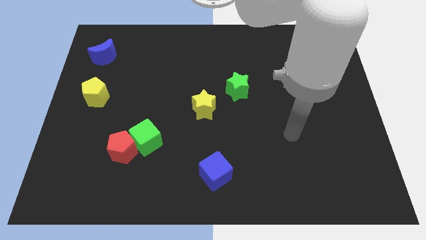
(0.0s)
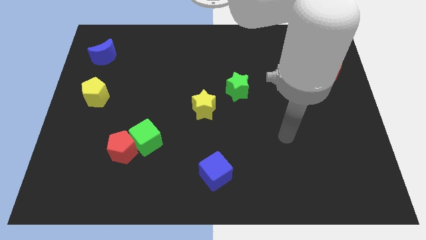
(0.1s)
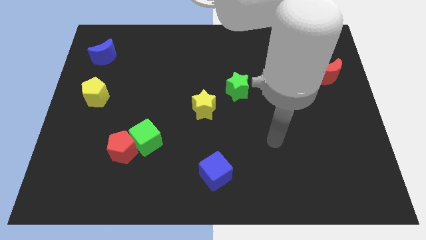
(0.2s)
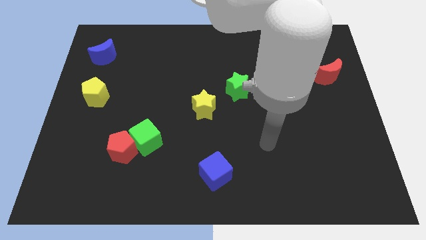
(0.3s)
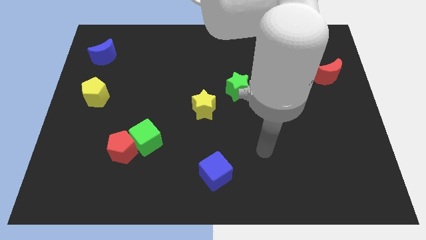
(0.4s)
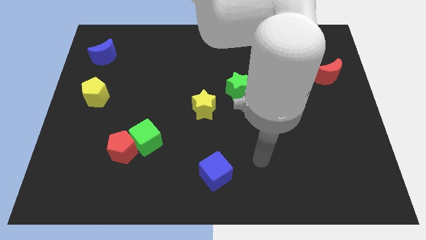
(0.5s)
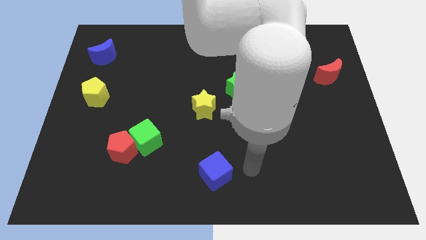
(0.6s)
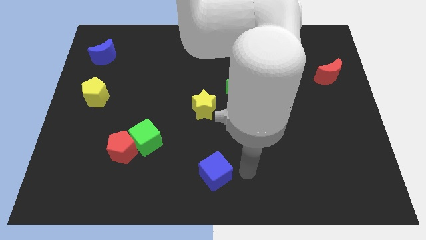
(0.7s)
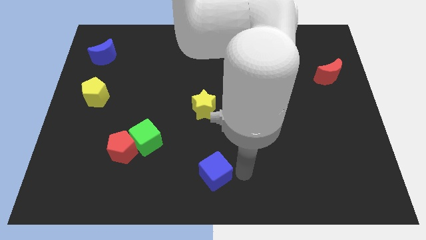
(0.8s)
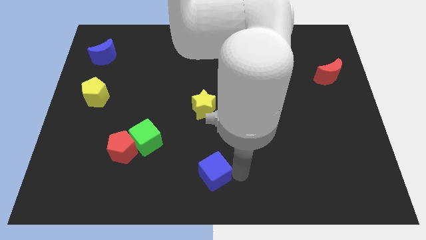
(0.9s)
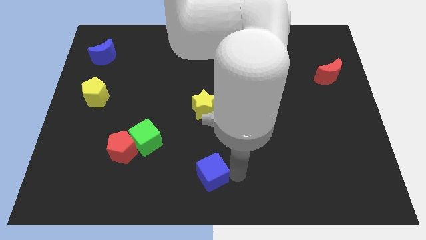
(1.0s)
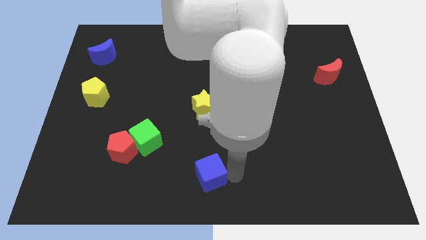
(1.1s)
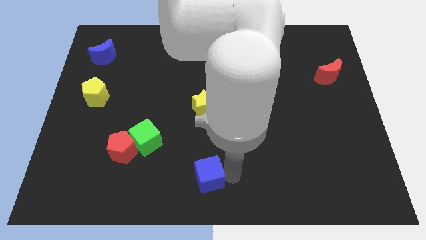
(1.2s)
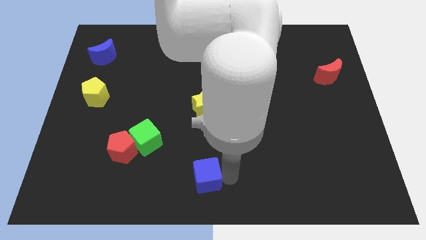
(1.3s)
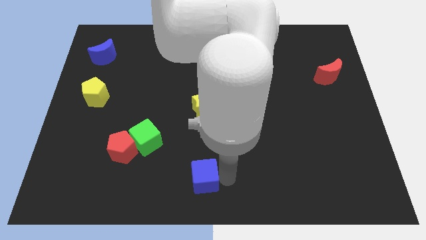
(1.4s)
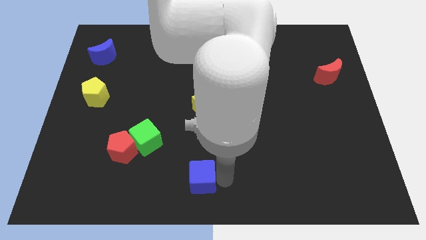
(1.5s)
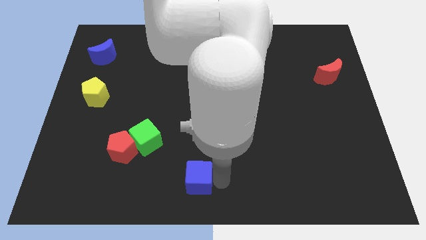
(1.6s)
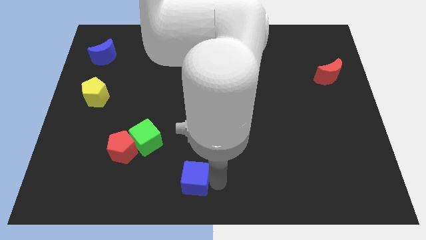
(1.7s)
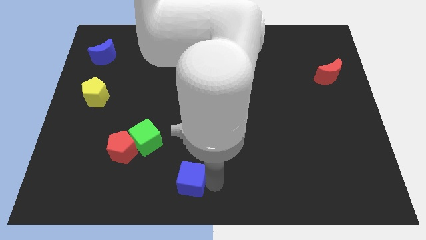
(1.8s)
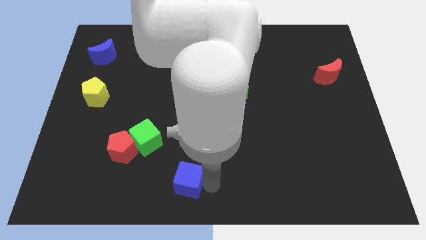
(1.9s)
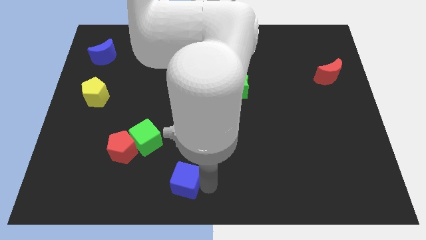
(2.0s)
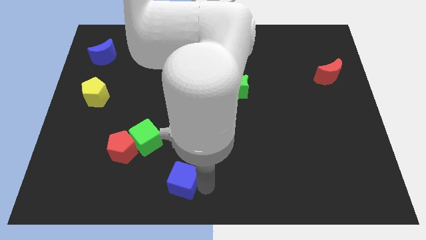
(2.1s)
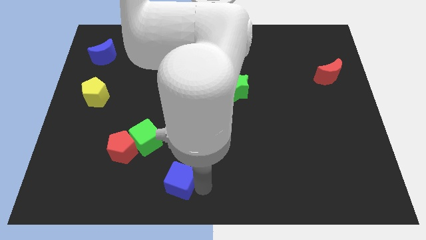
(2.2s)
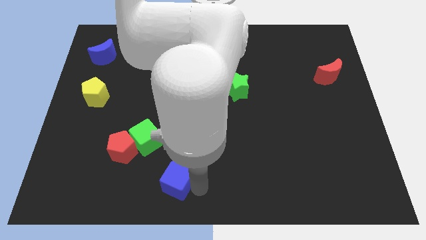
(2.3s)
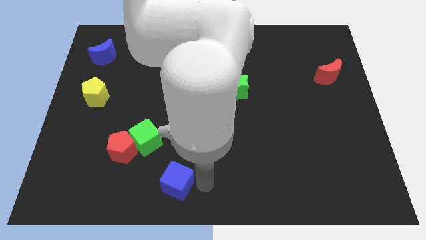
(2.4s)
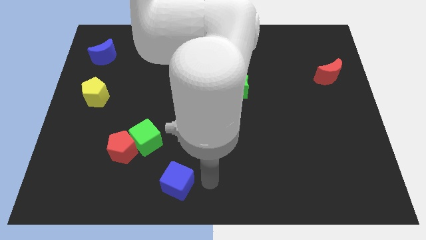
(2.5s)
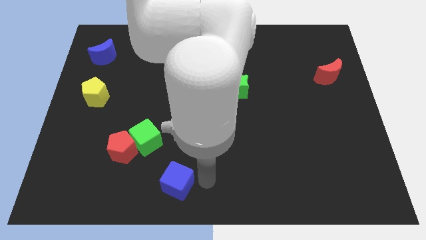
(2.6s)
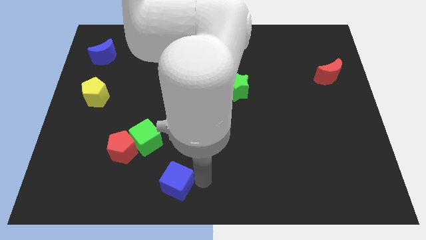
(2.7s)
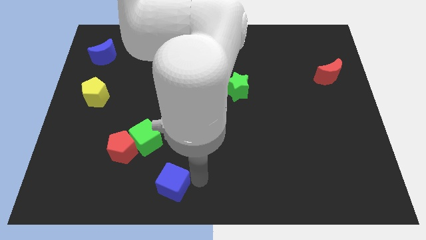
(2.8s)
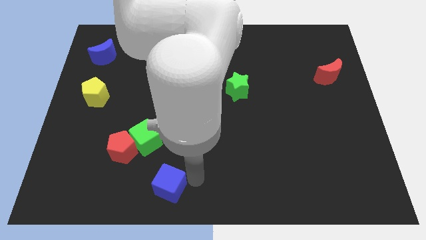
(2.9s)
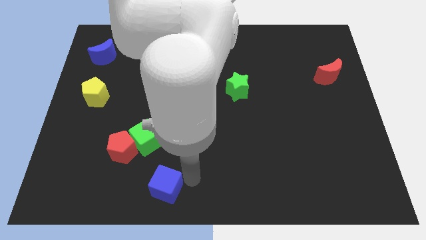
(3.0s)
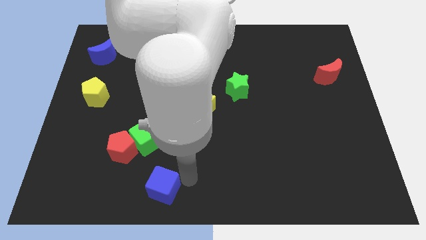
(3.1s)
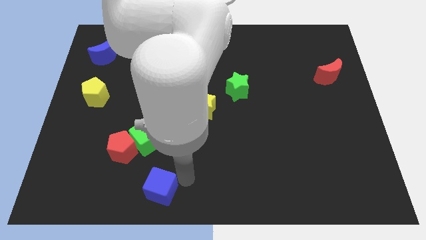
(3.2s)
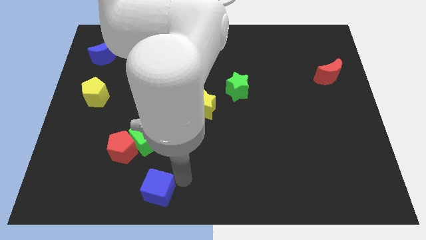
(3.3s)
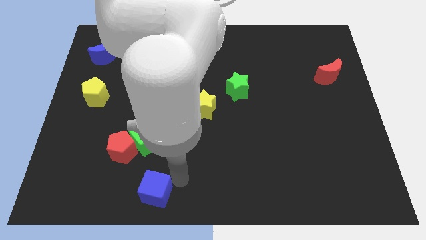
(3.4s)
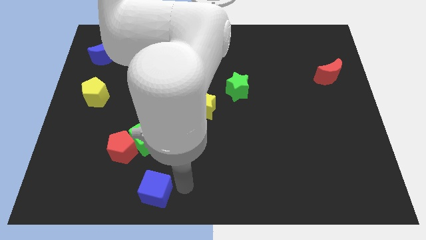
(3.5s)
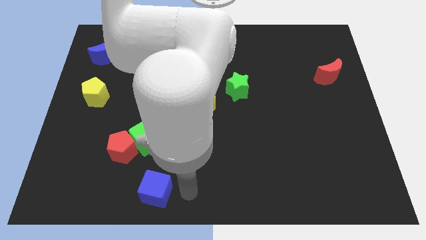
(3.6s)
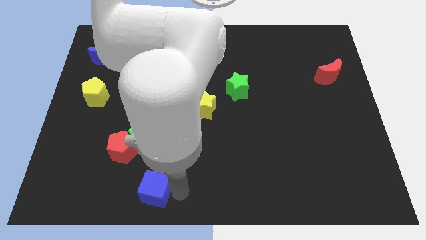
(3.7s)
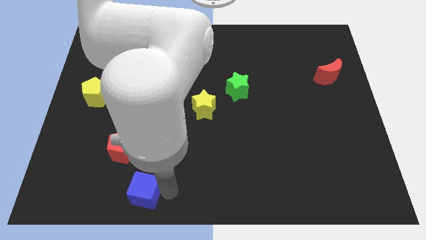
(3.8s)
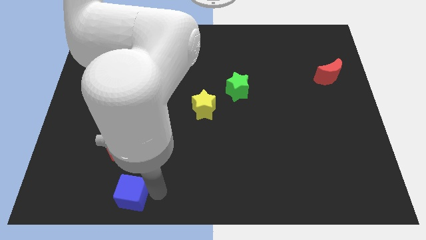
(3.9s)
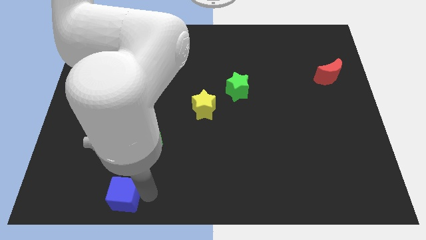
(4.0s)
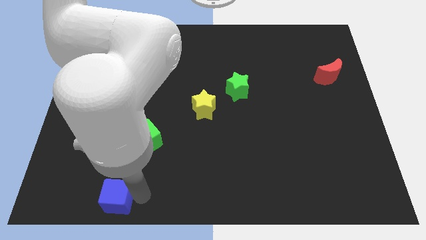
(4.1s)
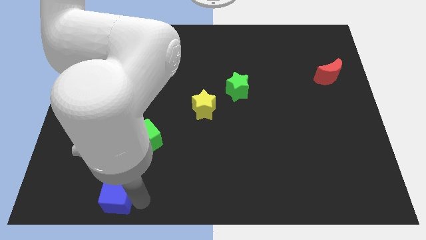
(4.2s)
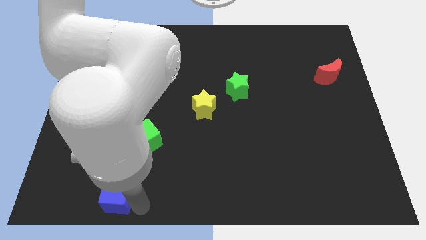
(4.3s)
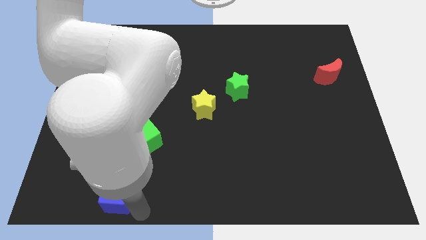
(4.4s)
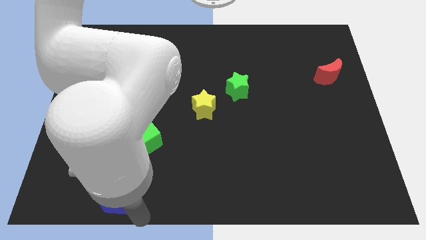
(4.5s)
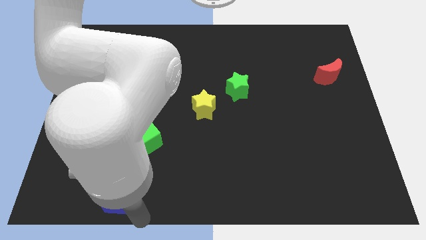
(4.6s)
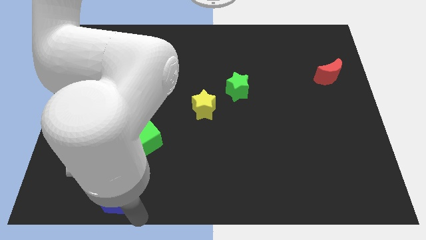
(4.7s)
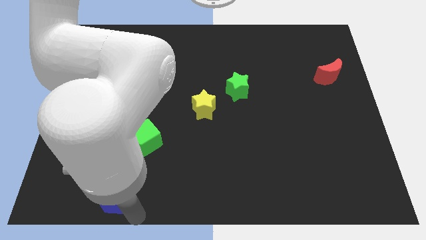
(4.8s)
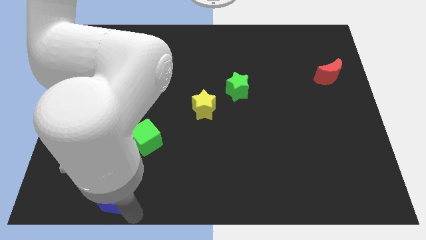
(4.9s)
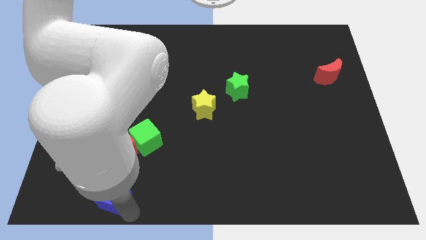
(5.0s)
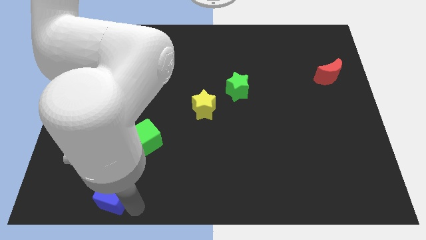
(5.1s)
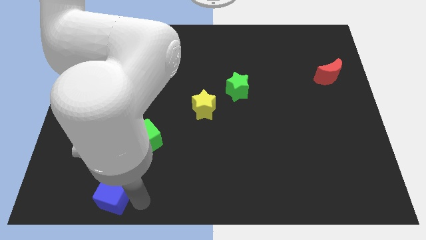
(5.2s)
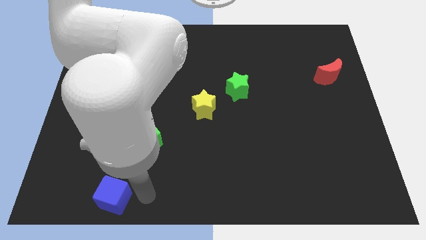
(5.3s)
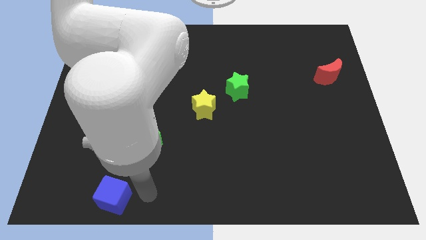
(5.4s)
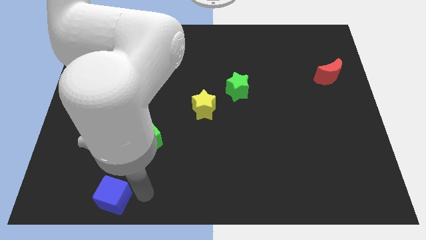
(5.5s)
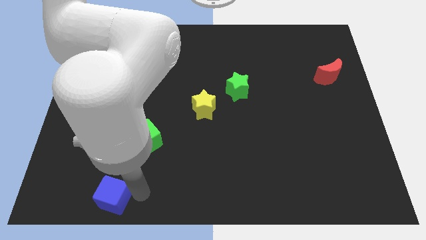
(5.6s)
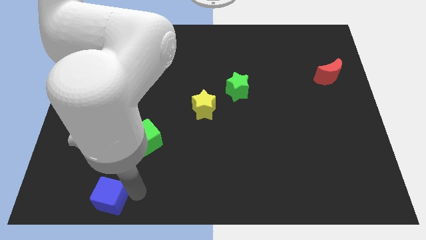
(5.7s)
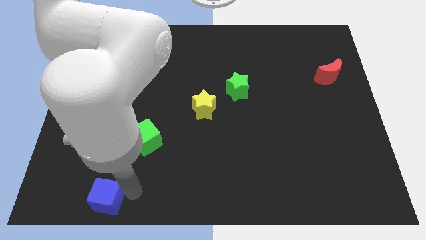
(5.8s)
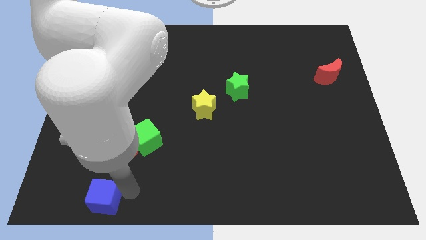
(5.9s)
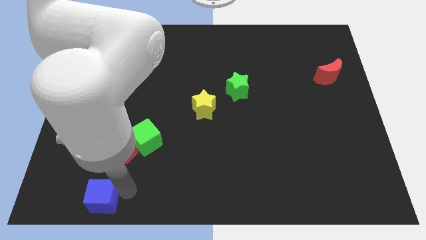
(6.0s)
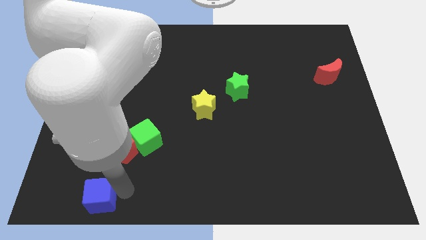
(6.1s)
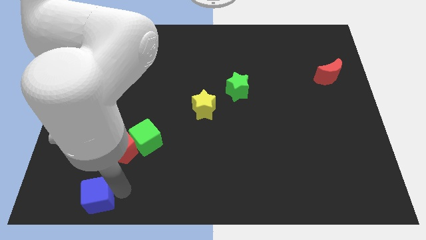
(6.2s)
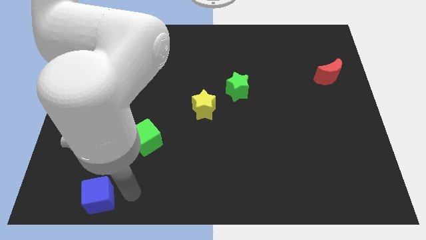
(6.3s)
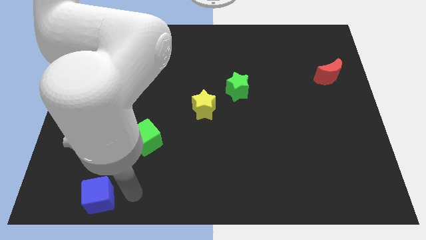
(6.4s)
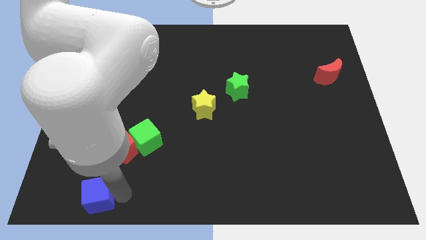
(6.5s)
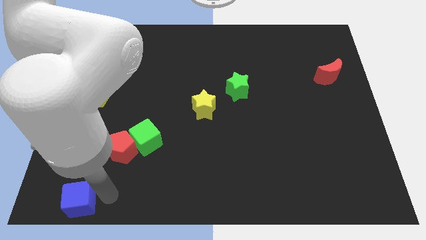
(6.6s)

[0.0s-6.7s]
put the blue cube to the bottom left corner

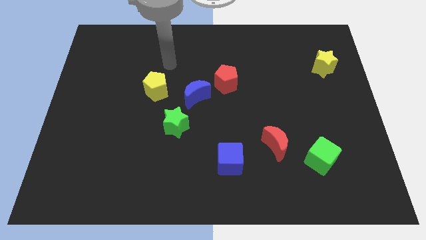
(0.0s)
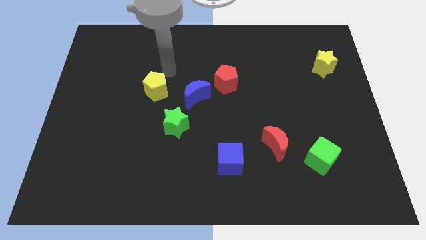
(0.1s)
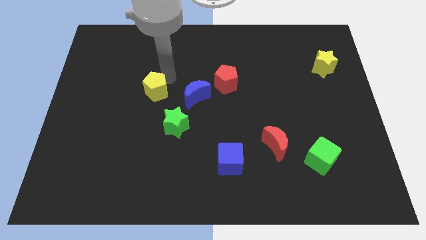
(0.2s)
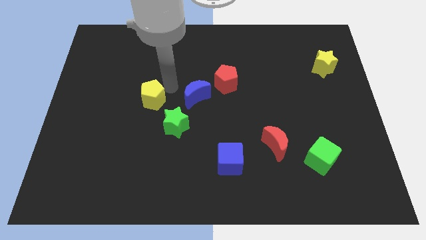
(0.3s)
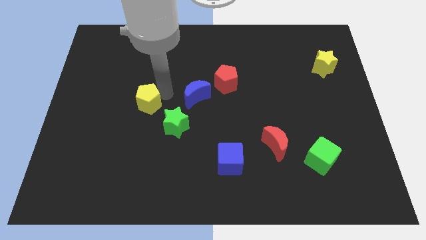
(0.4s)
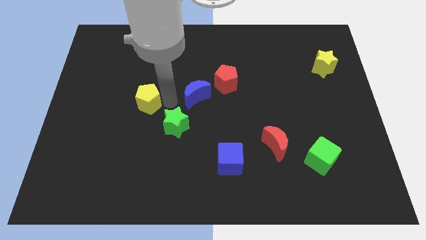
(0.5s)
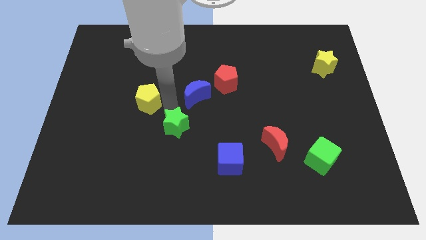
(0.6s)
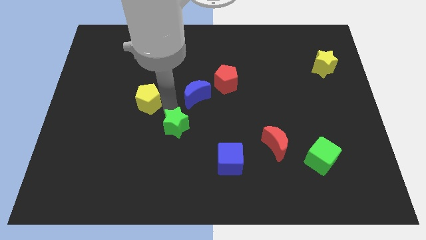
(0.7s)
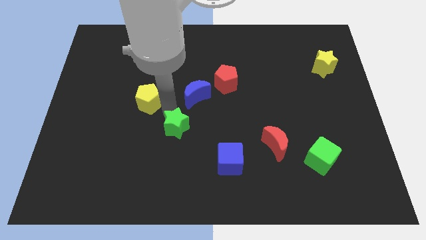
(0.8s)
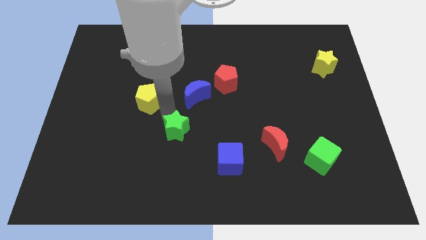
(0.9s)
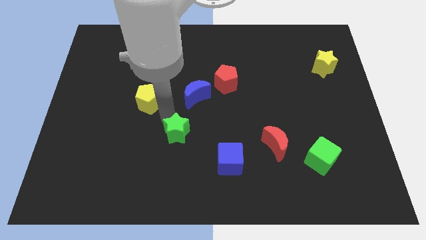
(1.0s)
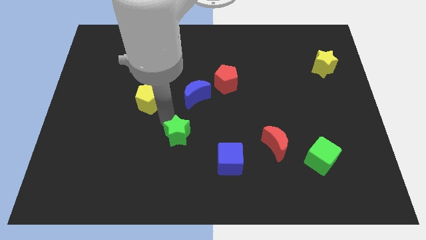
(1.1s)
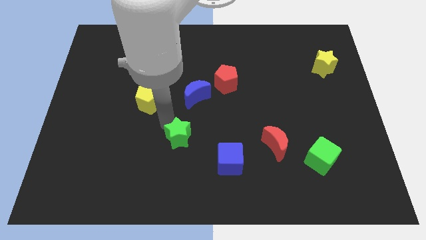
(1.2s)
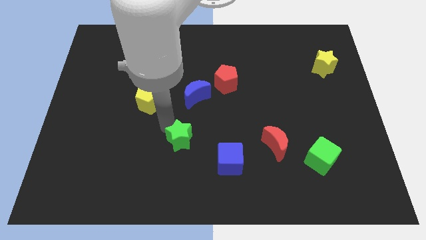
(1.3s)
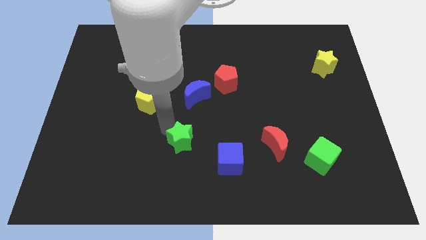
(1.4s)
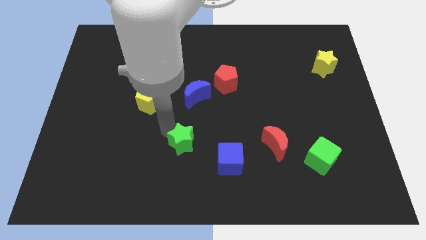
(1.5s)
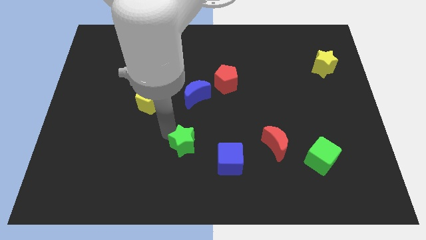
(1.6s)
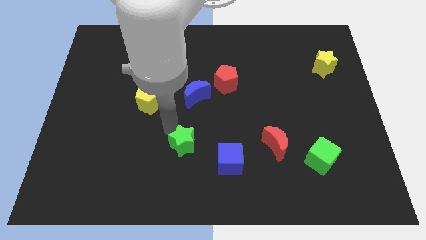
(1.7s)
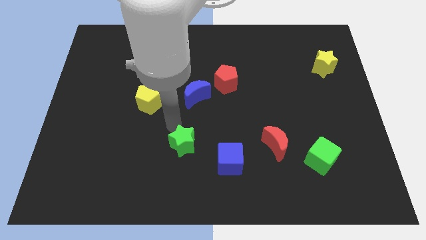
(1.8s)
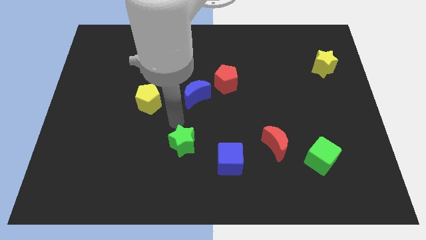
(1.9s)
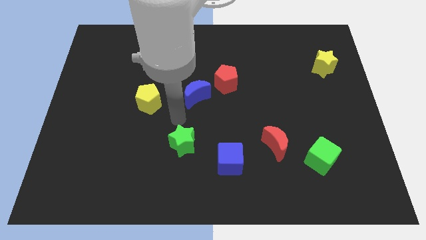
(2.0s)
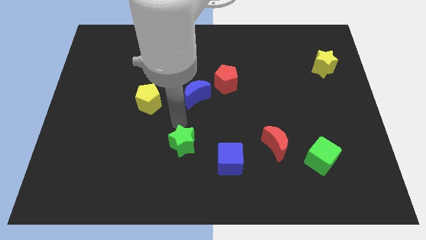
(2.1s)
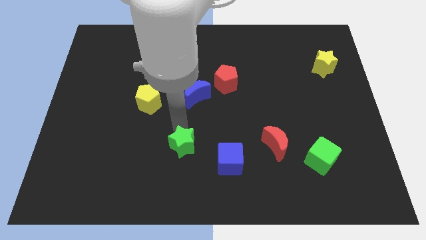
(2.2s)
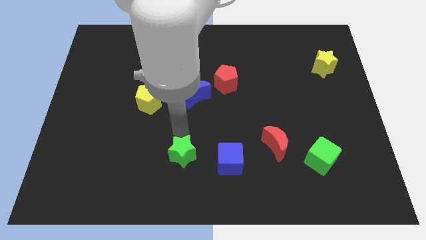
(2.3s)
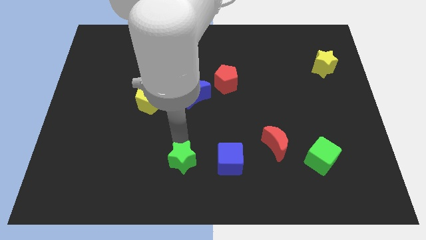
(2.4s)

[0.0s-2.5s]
put the green star to the bottom
